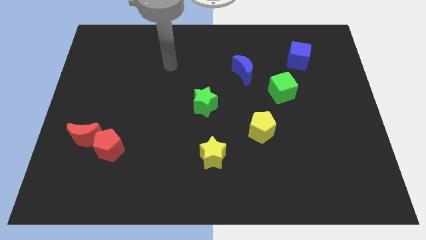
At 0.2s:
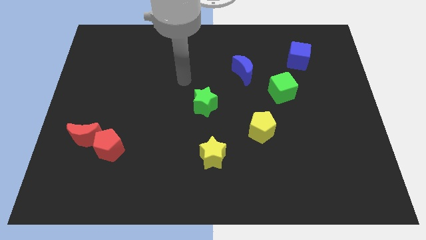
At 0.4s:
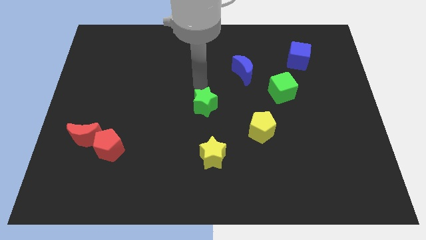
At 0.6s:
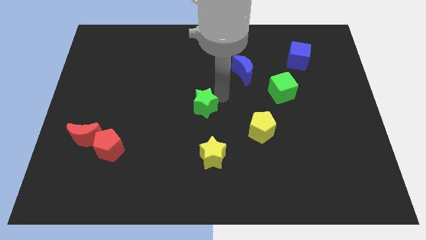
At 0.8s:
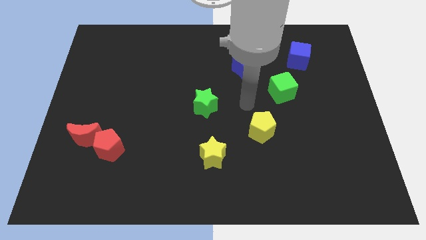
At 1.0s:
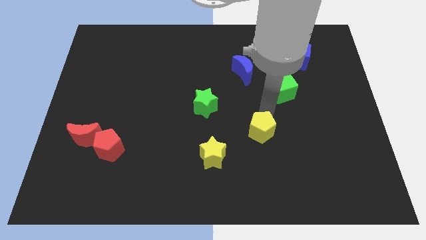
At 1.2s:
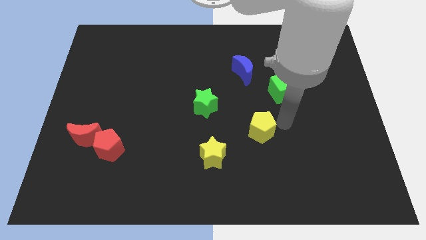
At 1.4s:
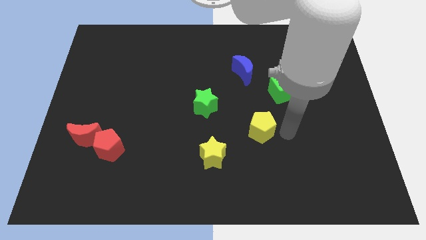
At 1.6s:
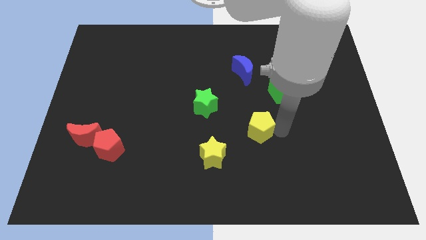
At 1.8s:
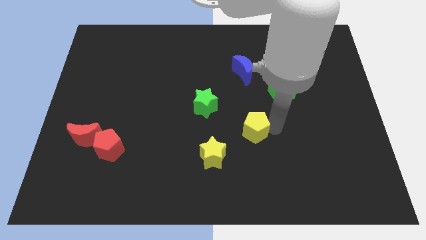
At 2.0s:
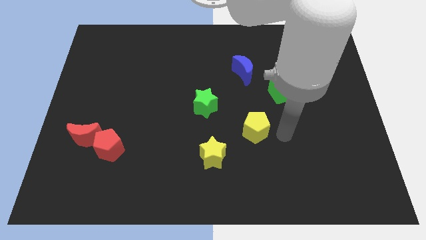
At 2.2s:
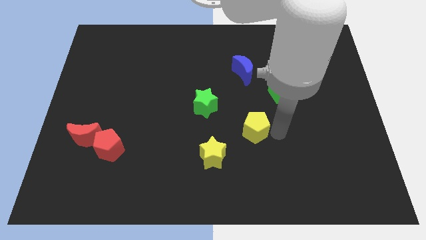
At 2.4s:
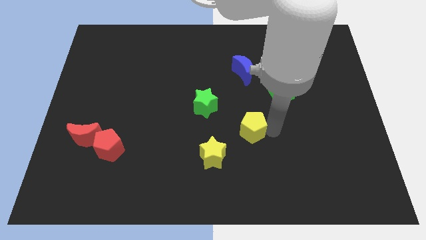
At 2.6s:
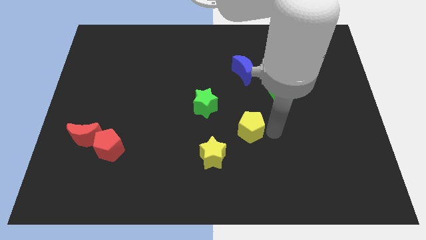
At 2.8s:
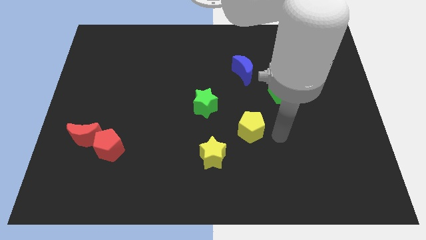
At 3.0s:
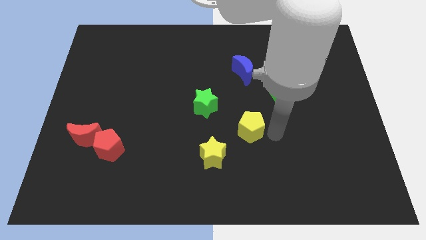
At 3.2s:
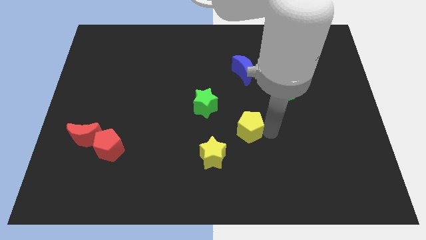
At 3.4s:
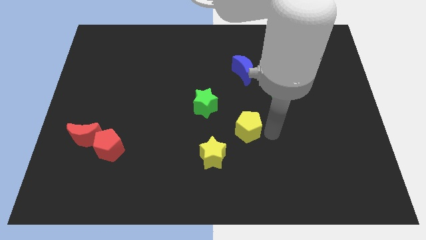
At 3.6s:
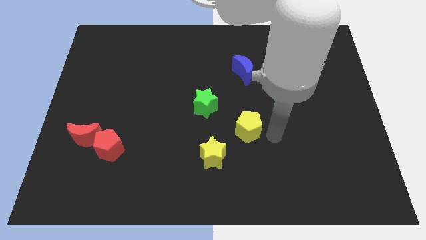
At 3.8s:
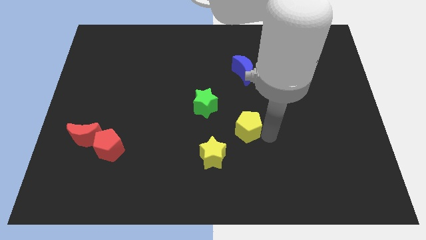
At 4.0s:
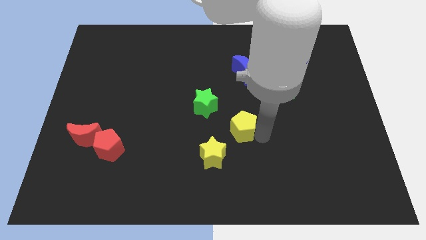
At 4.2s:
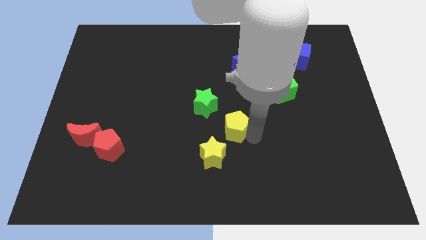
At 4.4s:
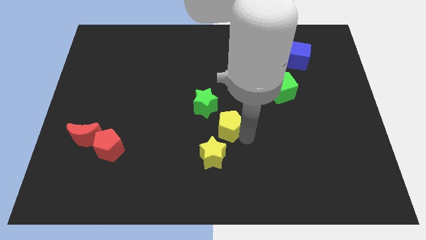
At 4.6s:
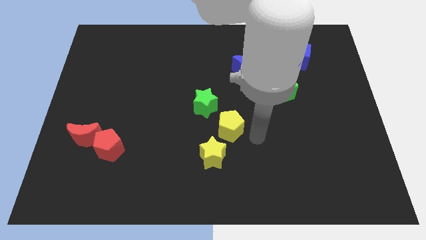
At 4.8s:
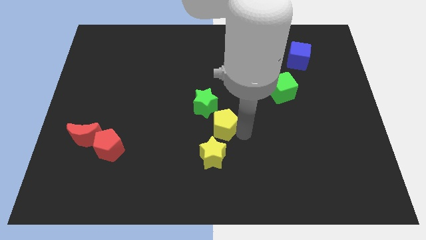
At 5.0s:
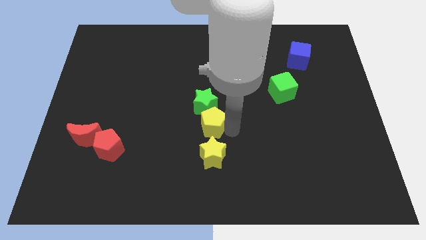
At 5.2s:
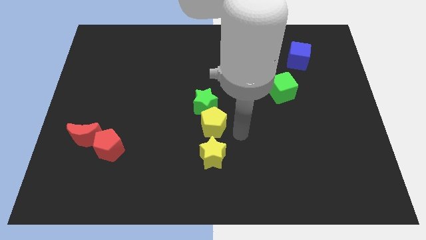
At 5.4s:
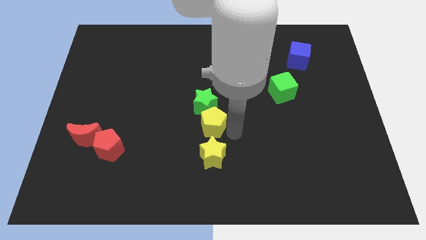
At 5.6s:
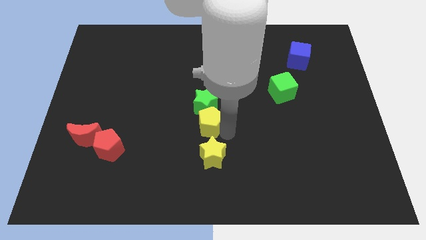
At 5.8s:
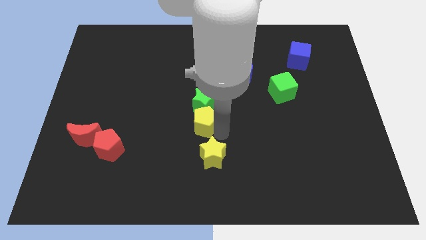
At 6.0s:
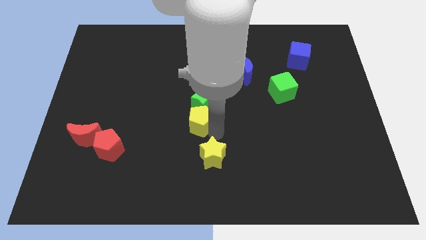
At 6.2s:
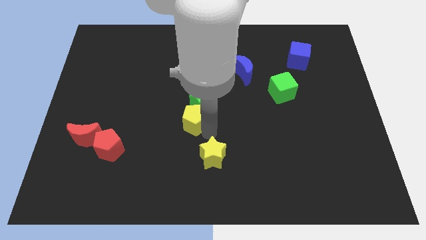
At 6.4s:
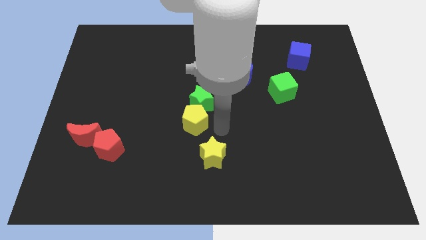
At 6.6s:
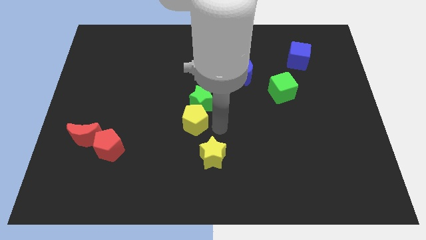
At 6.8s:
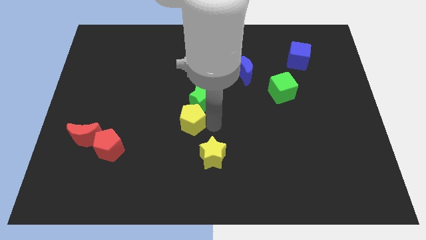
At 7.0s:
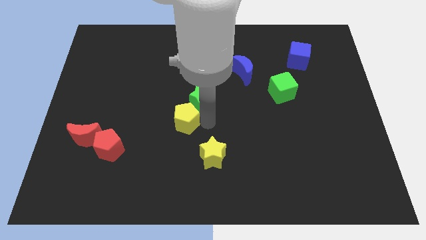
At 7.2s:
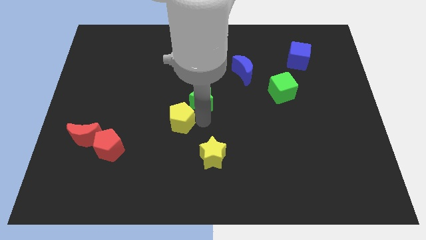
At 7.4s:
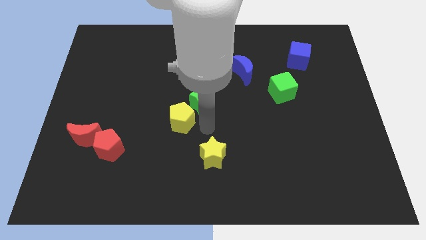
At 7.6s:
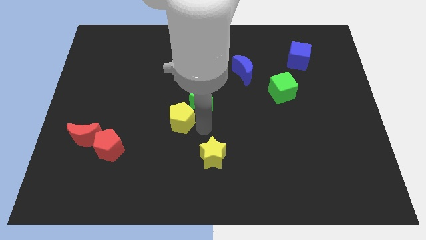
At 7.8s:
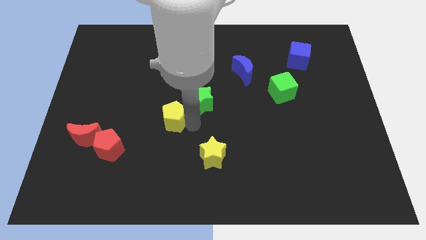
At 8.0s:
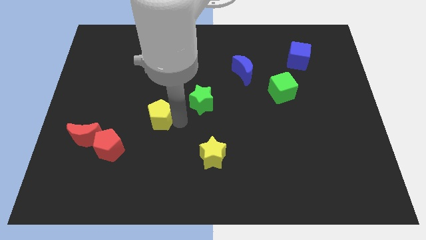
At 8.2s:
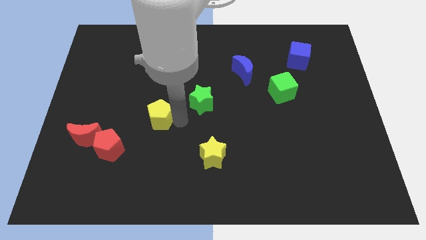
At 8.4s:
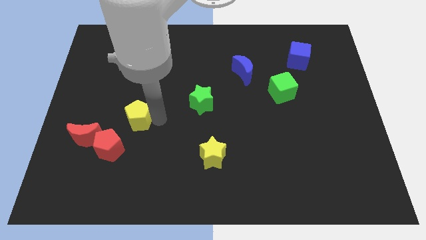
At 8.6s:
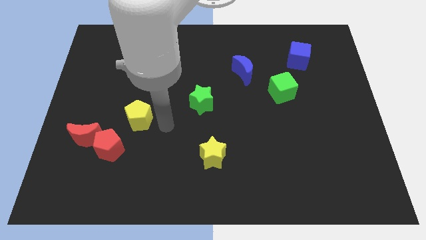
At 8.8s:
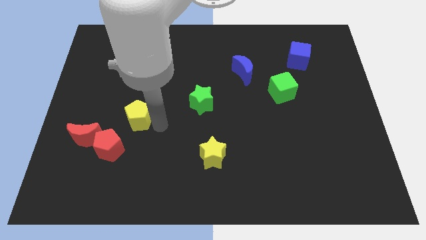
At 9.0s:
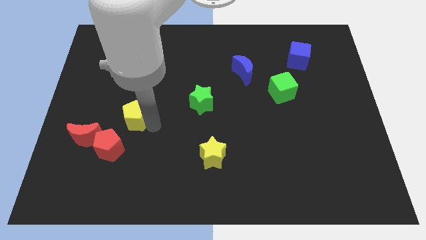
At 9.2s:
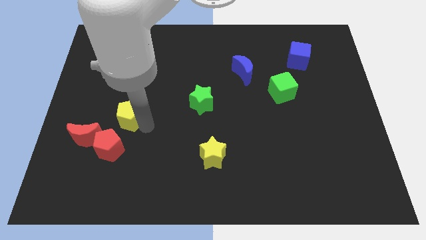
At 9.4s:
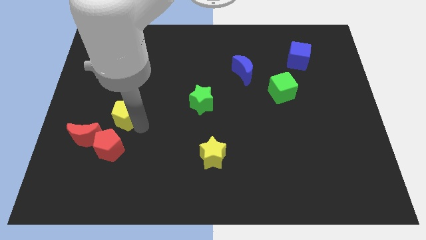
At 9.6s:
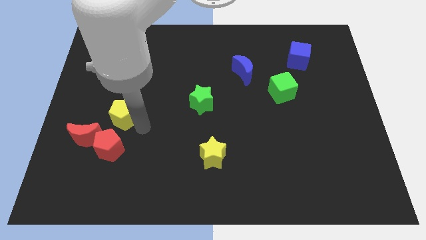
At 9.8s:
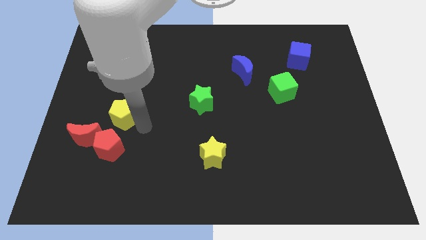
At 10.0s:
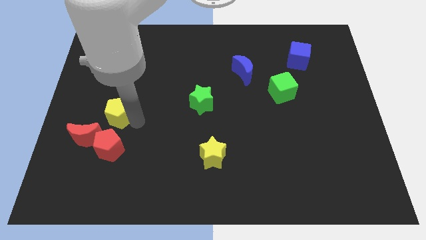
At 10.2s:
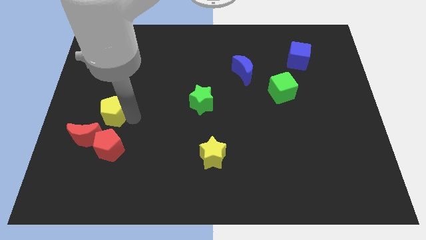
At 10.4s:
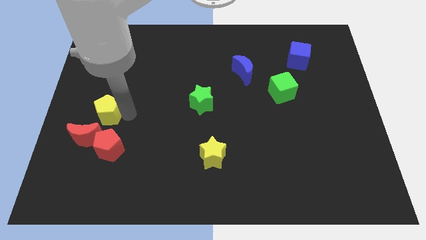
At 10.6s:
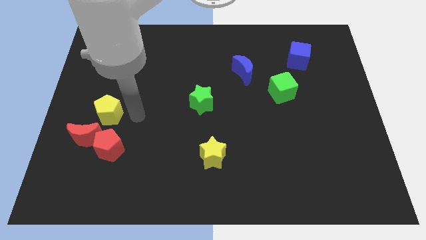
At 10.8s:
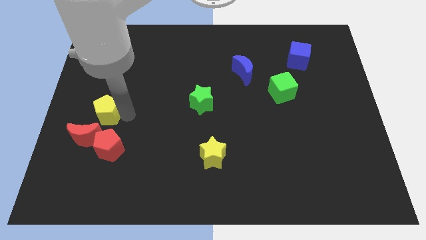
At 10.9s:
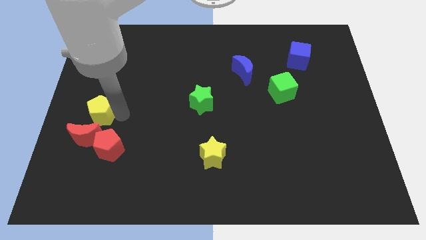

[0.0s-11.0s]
push the yellow pentagon to the left side

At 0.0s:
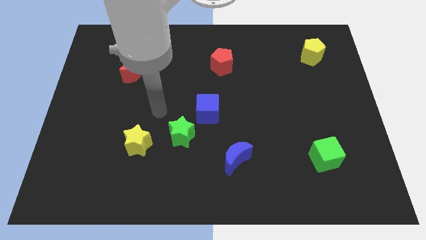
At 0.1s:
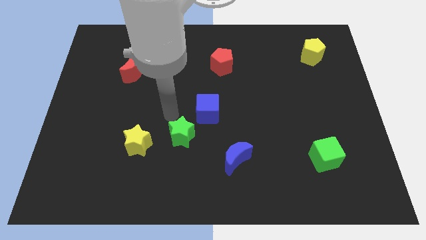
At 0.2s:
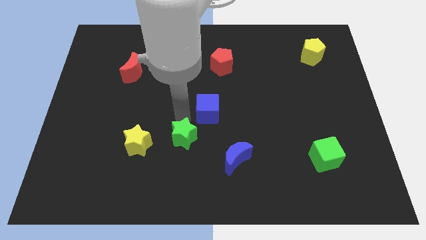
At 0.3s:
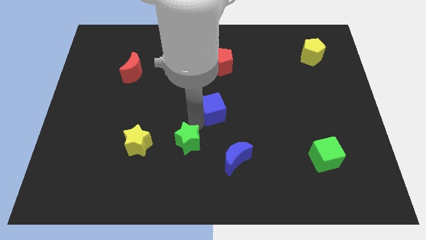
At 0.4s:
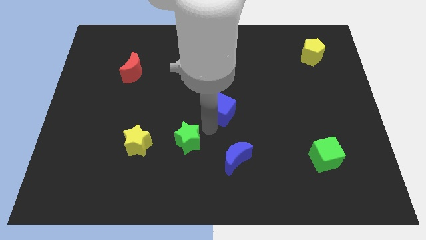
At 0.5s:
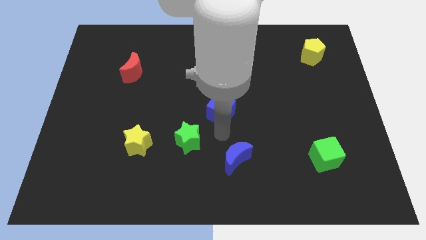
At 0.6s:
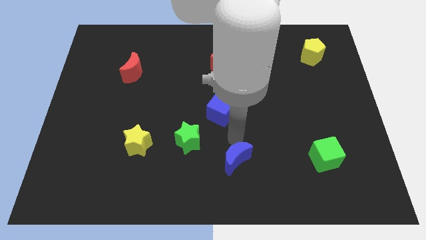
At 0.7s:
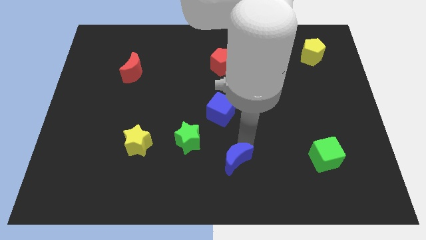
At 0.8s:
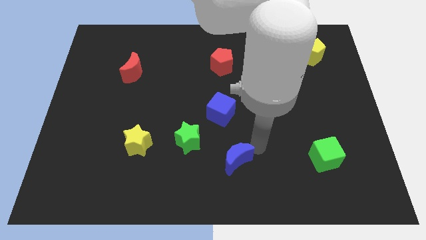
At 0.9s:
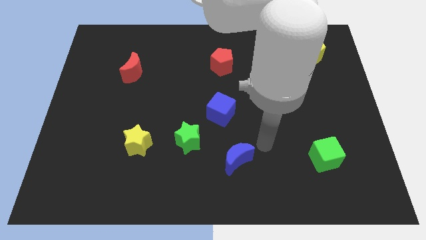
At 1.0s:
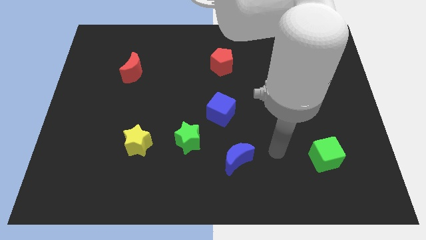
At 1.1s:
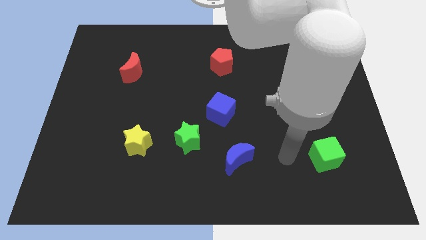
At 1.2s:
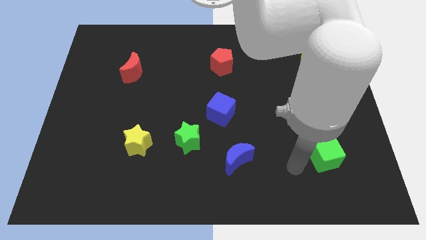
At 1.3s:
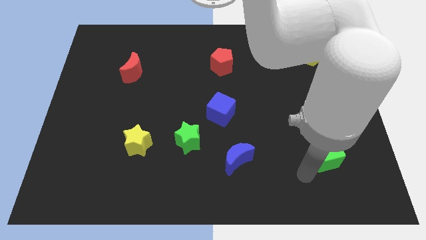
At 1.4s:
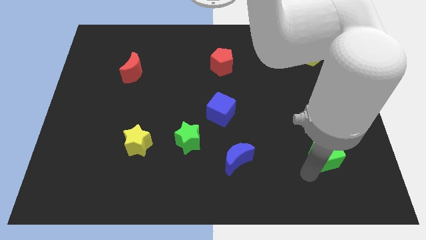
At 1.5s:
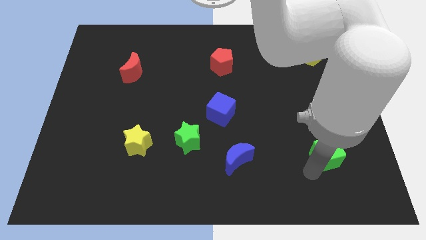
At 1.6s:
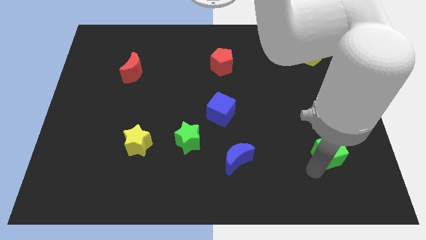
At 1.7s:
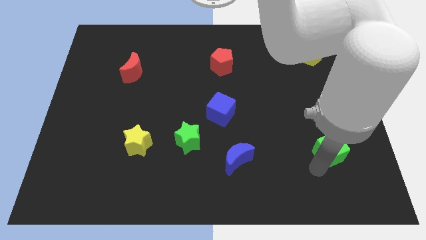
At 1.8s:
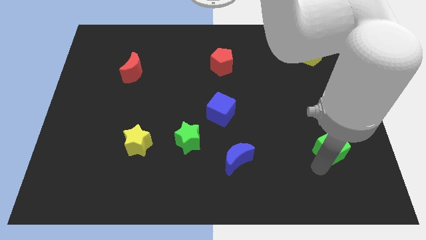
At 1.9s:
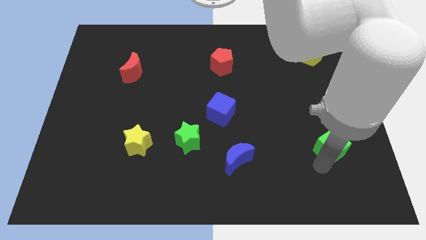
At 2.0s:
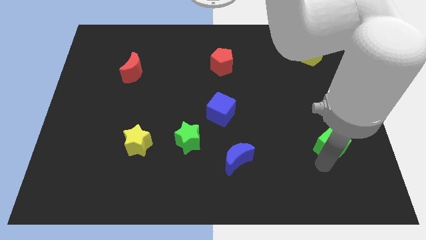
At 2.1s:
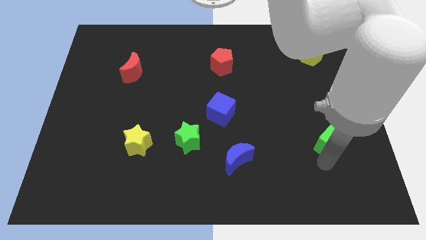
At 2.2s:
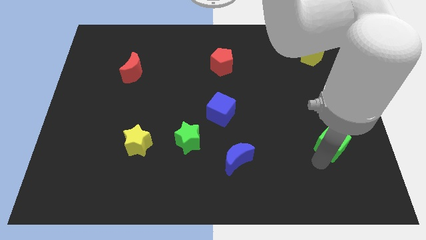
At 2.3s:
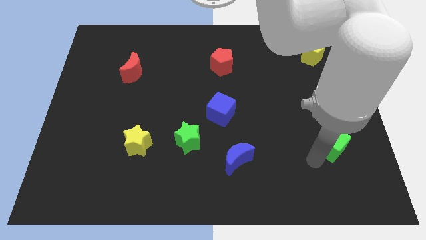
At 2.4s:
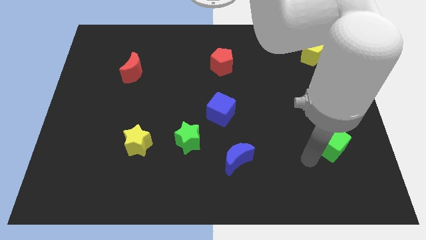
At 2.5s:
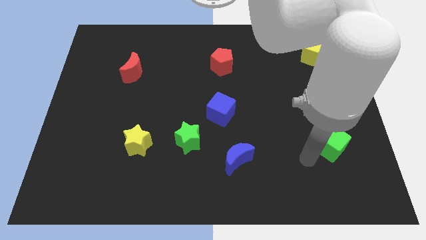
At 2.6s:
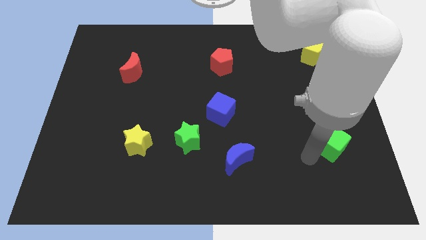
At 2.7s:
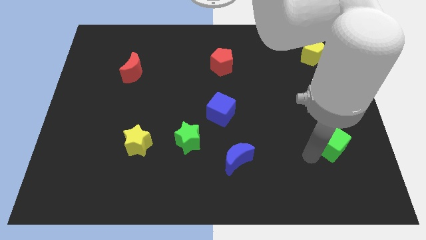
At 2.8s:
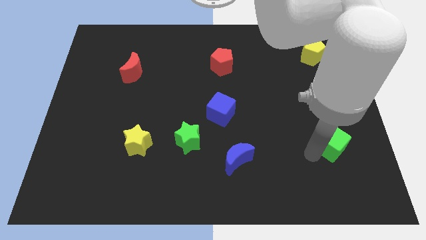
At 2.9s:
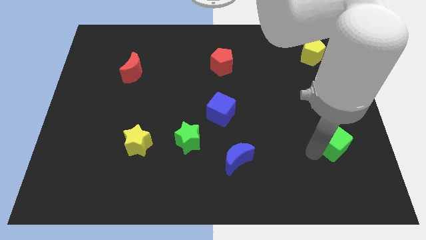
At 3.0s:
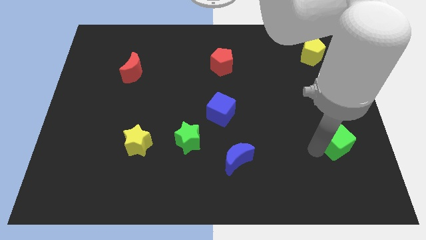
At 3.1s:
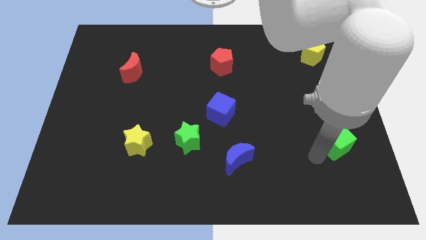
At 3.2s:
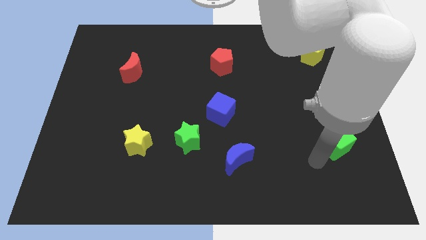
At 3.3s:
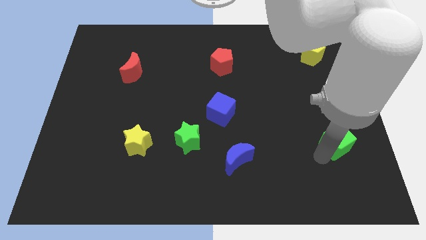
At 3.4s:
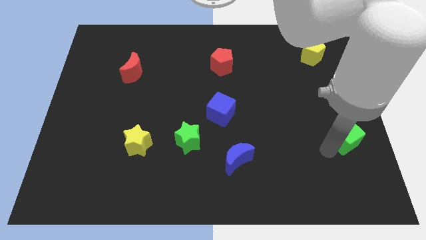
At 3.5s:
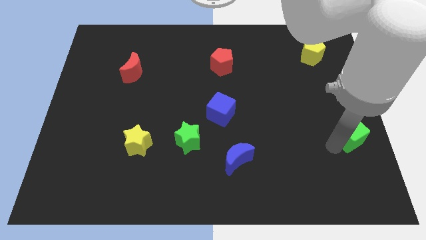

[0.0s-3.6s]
move the green cube to the right side
